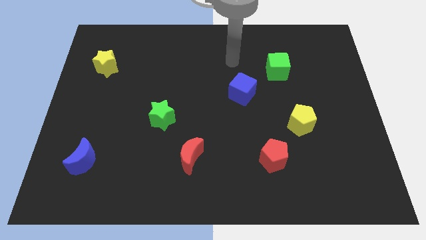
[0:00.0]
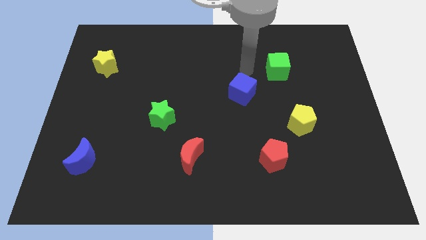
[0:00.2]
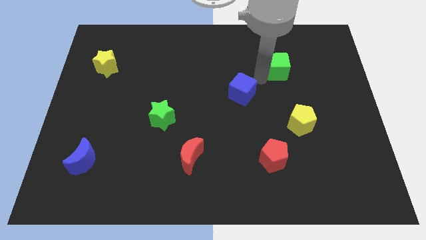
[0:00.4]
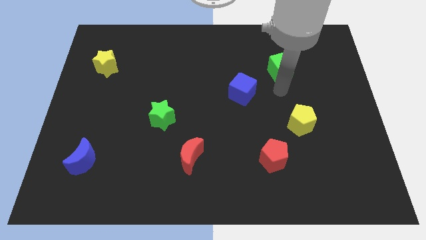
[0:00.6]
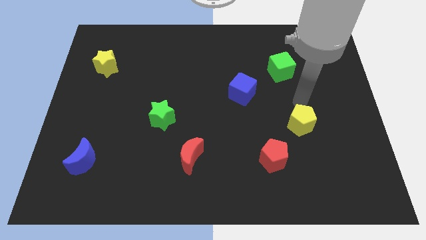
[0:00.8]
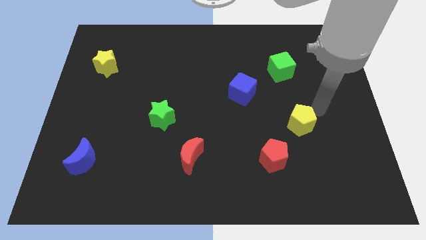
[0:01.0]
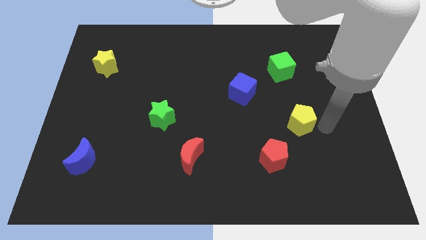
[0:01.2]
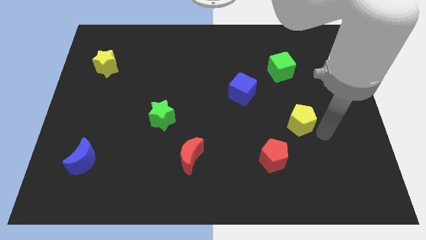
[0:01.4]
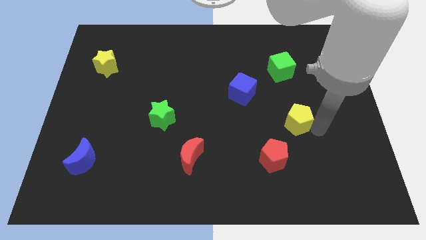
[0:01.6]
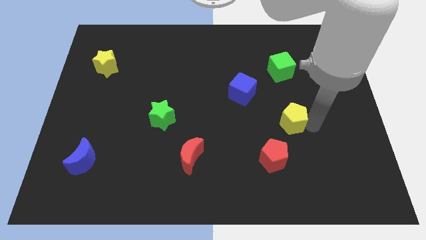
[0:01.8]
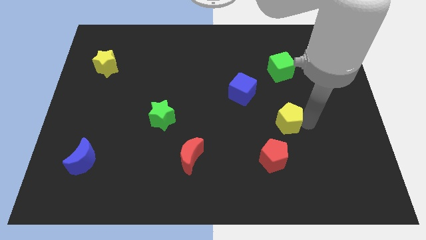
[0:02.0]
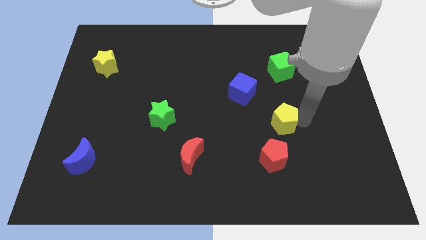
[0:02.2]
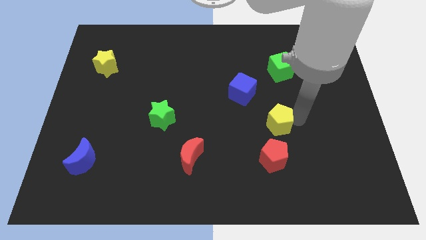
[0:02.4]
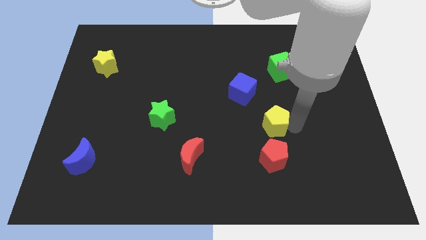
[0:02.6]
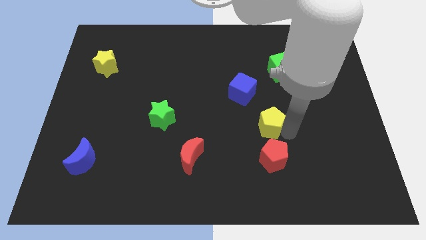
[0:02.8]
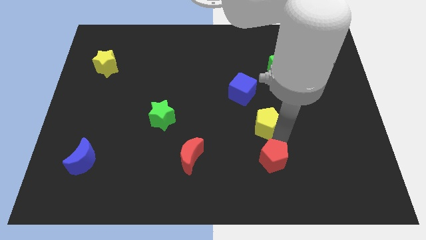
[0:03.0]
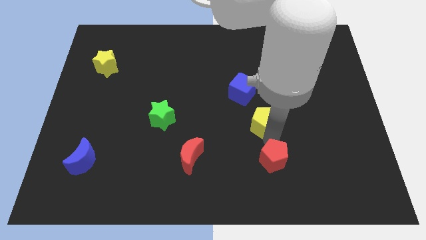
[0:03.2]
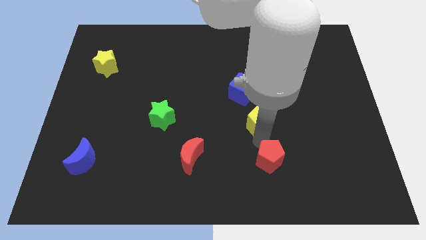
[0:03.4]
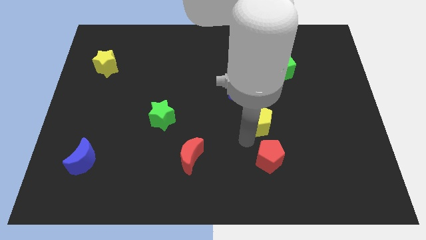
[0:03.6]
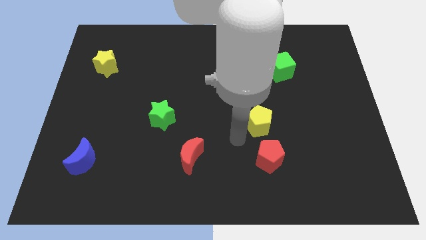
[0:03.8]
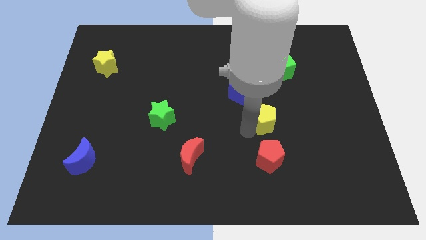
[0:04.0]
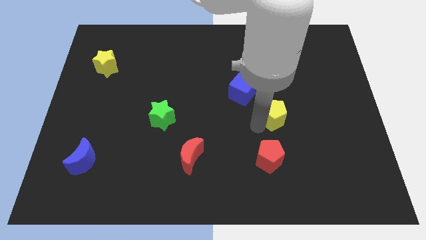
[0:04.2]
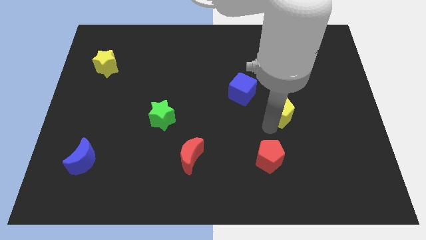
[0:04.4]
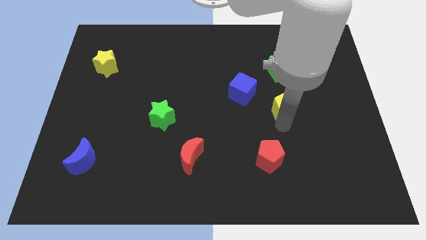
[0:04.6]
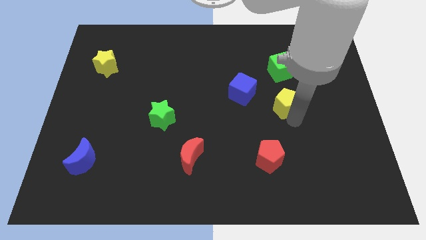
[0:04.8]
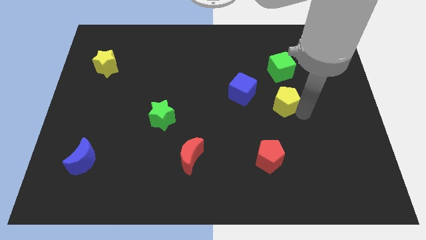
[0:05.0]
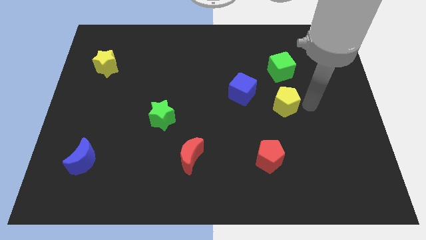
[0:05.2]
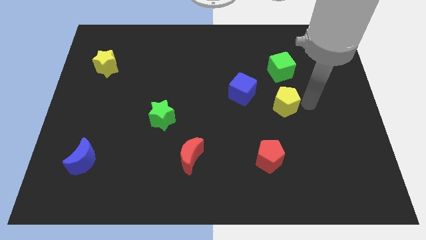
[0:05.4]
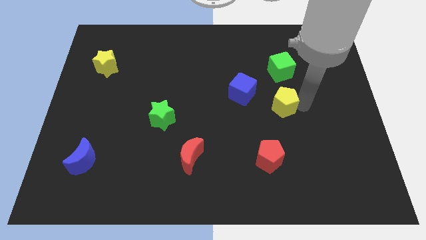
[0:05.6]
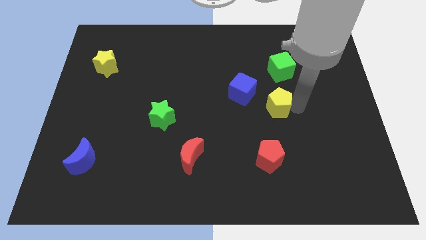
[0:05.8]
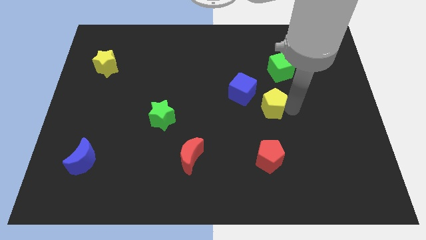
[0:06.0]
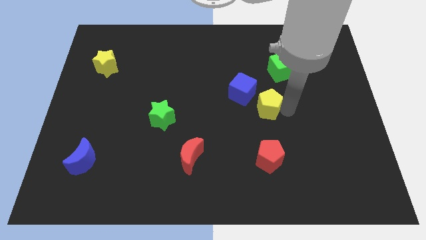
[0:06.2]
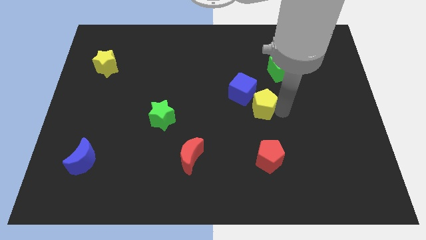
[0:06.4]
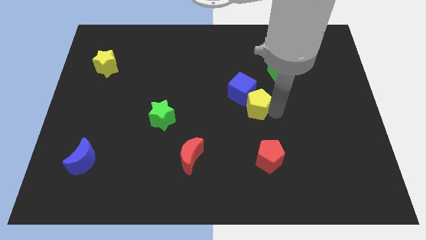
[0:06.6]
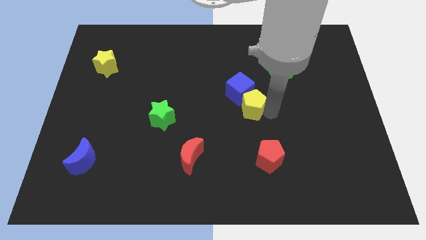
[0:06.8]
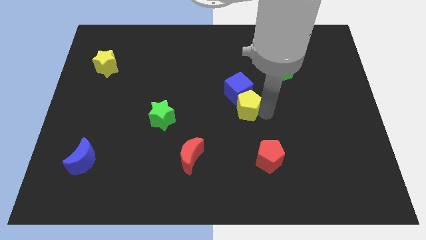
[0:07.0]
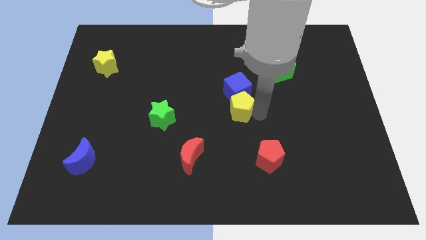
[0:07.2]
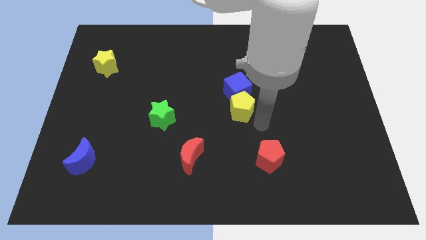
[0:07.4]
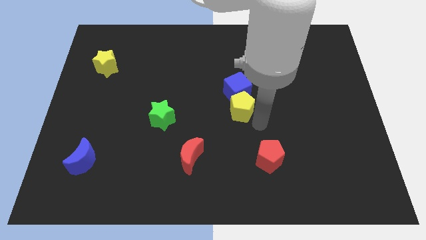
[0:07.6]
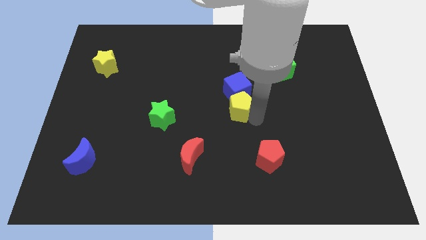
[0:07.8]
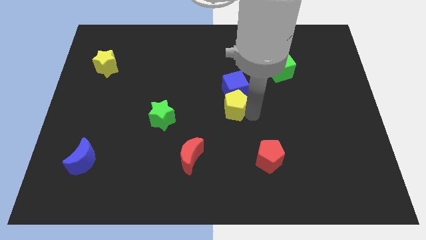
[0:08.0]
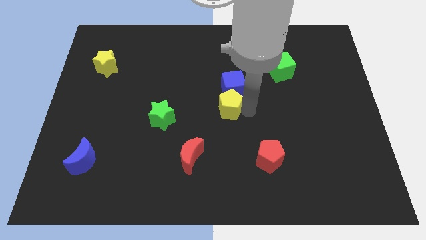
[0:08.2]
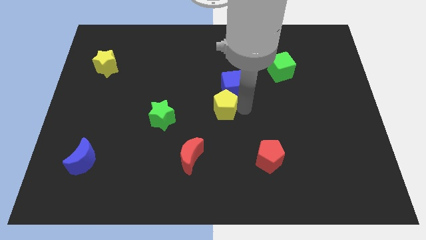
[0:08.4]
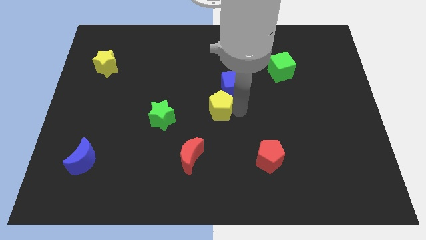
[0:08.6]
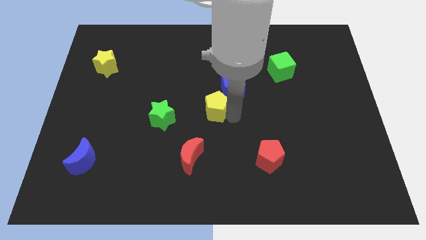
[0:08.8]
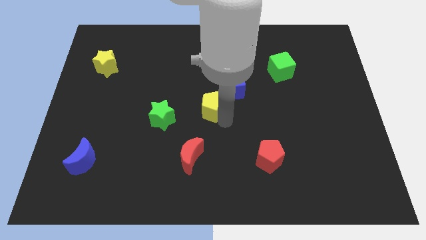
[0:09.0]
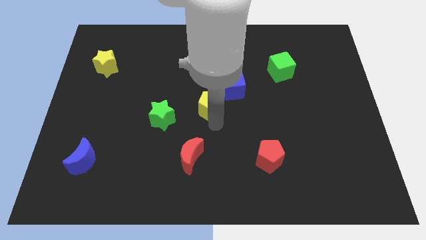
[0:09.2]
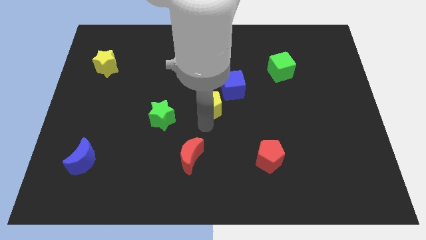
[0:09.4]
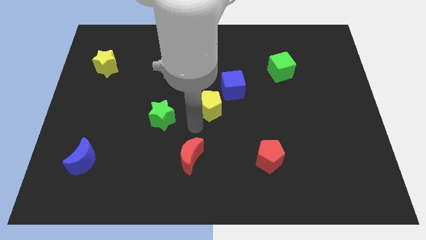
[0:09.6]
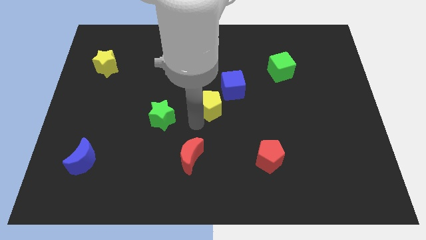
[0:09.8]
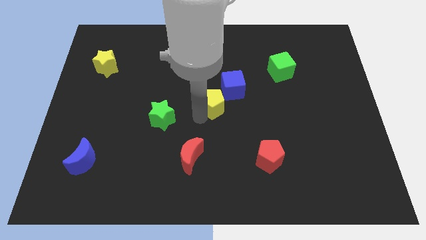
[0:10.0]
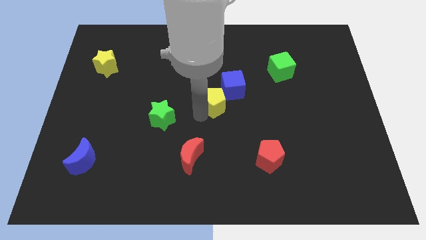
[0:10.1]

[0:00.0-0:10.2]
slide the yellow pentagon to the left side of the blue cube

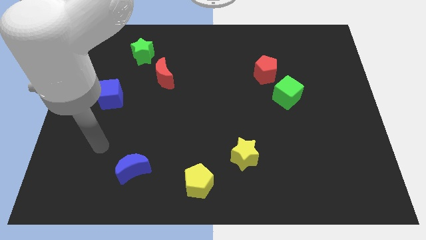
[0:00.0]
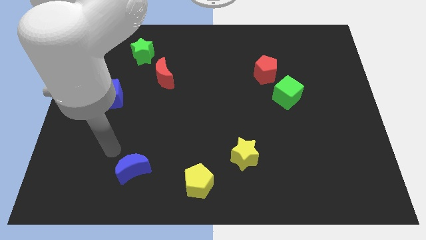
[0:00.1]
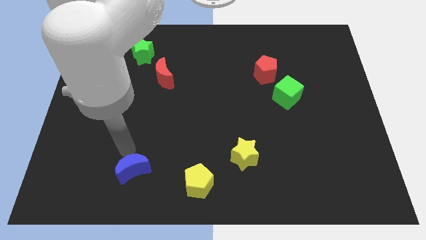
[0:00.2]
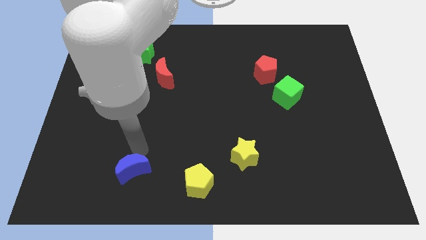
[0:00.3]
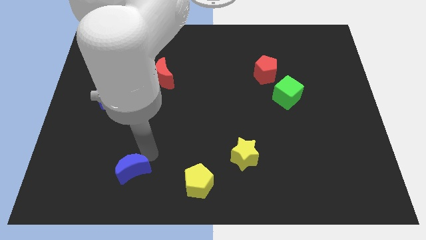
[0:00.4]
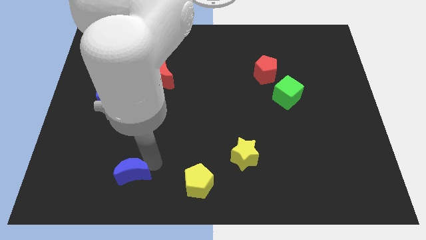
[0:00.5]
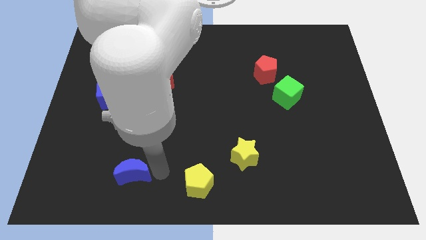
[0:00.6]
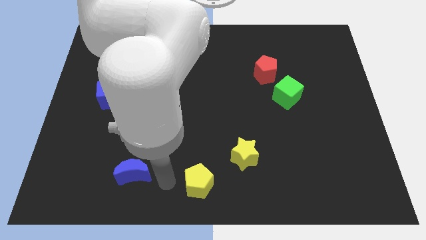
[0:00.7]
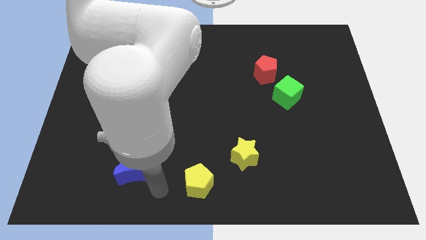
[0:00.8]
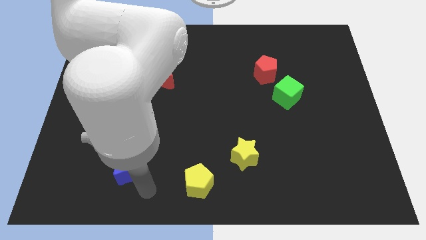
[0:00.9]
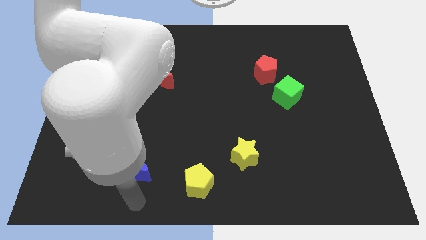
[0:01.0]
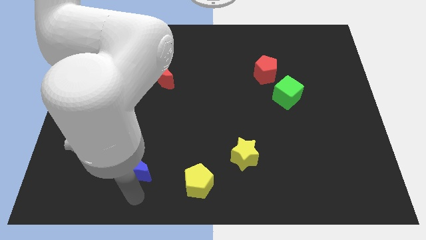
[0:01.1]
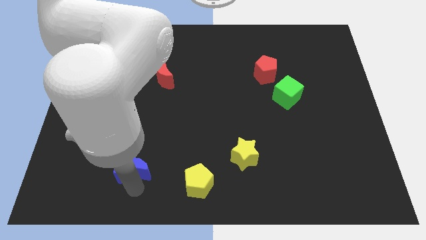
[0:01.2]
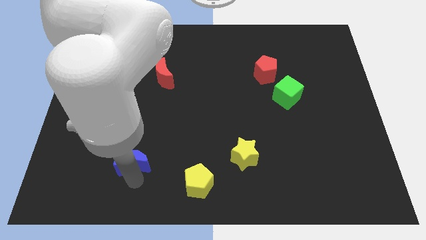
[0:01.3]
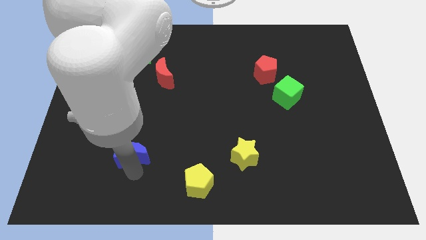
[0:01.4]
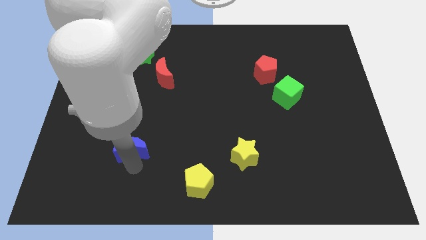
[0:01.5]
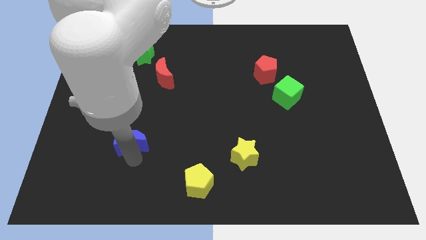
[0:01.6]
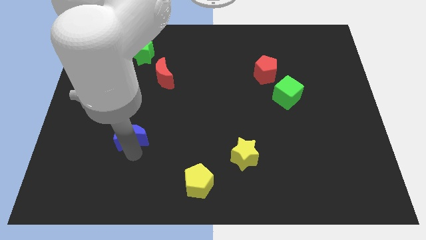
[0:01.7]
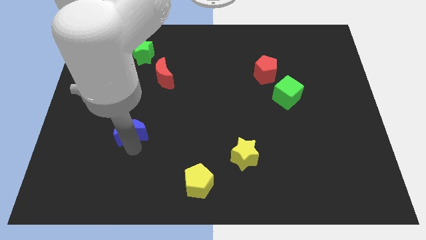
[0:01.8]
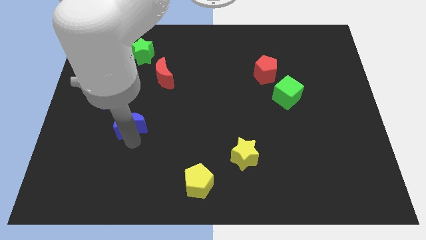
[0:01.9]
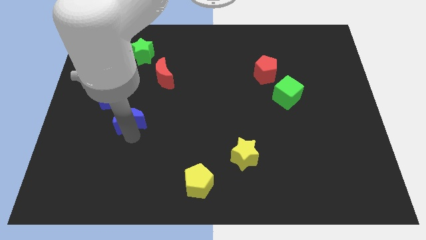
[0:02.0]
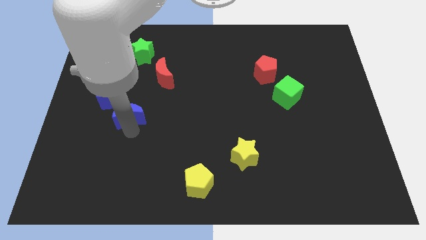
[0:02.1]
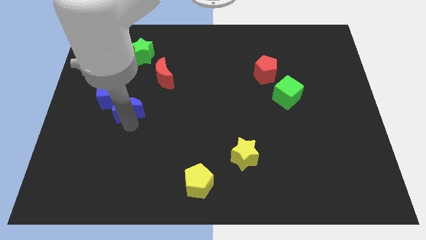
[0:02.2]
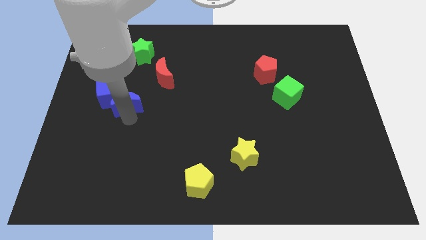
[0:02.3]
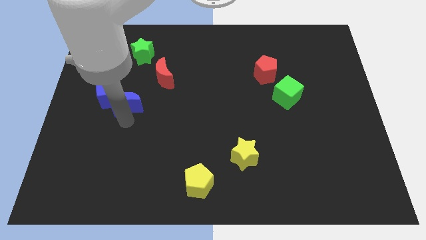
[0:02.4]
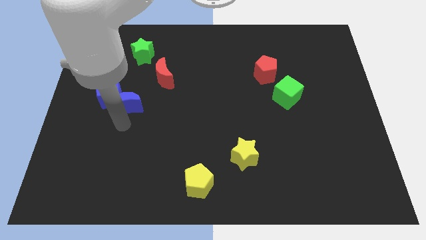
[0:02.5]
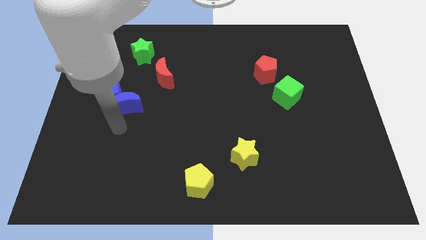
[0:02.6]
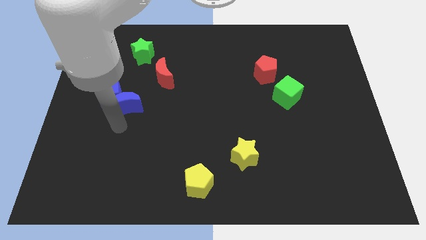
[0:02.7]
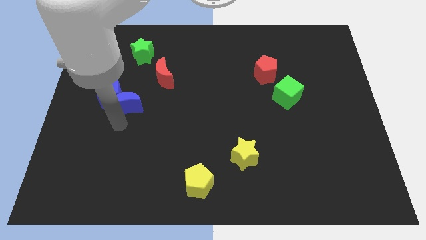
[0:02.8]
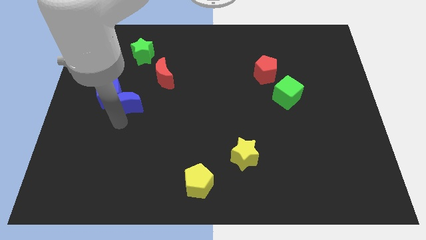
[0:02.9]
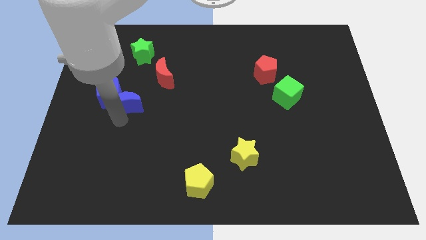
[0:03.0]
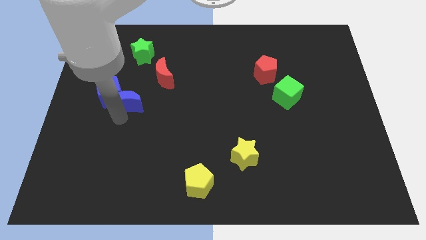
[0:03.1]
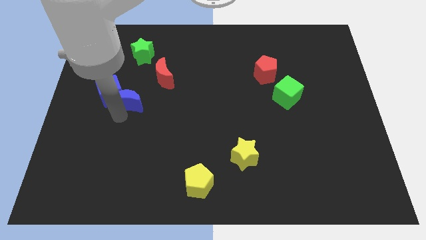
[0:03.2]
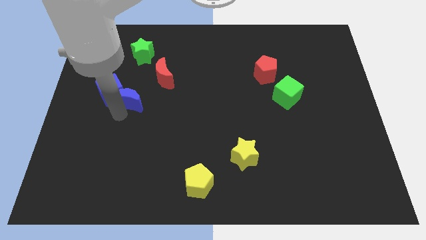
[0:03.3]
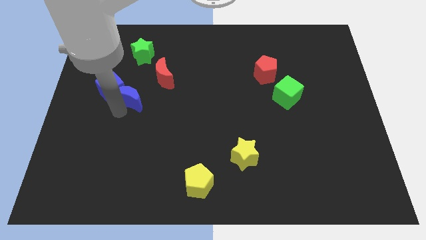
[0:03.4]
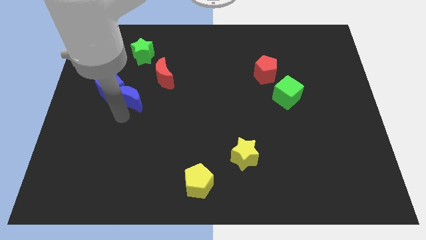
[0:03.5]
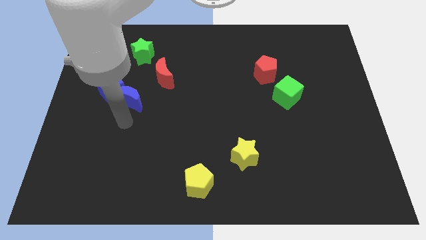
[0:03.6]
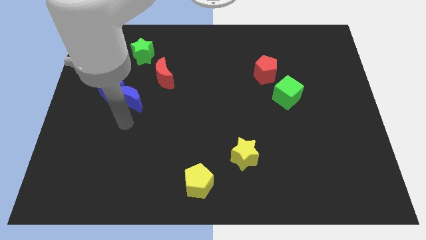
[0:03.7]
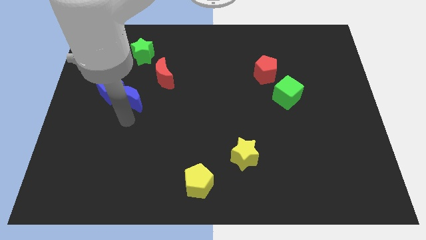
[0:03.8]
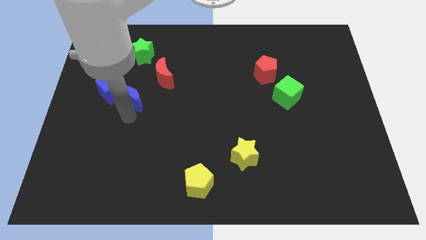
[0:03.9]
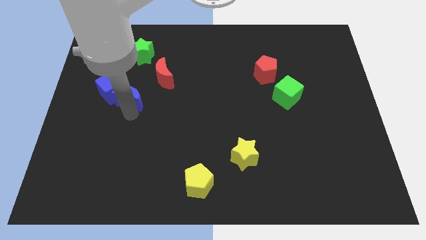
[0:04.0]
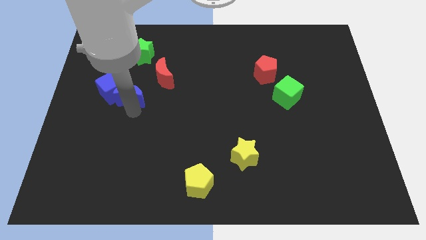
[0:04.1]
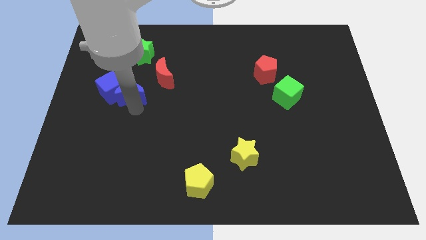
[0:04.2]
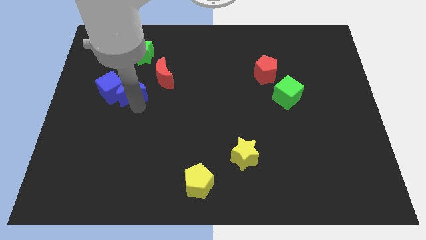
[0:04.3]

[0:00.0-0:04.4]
slide the blue moon diagonally up and to the right of the blue cube
